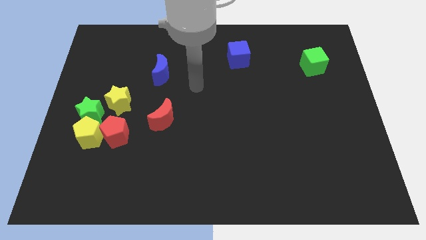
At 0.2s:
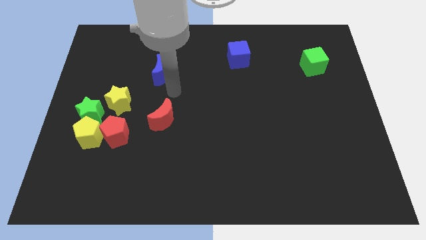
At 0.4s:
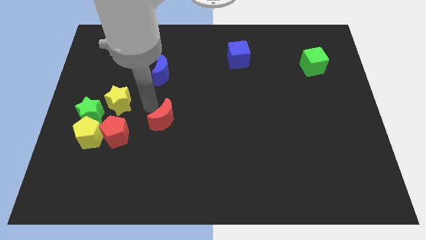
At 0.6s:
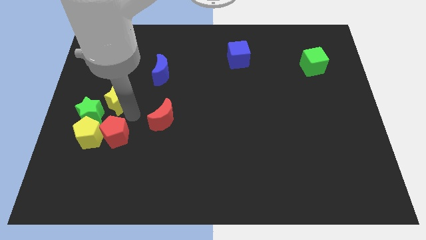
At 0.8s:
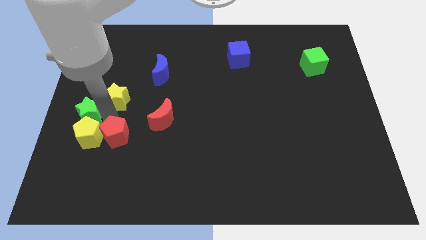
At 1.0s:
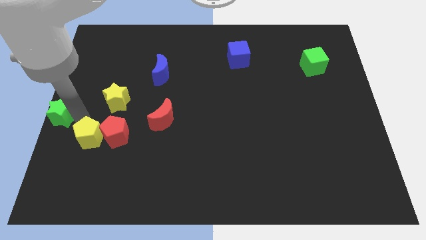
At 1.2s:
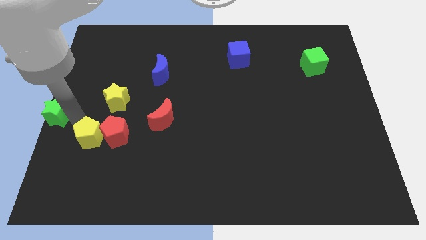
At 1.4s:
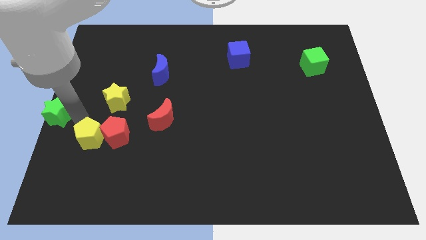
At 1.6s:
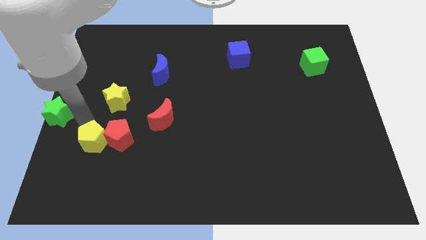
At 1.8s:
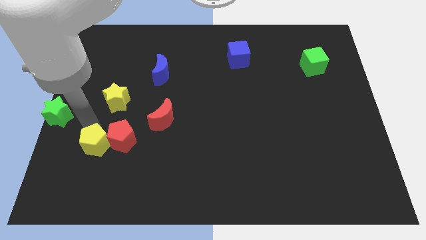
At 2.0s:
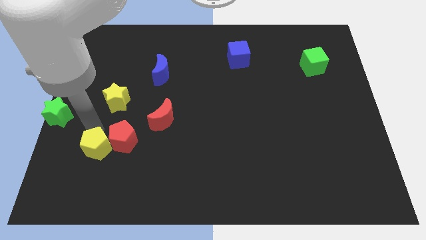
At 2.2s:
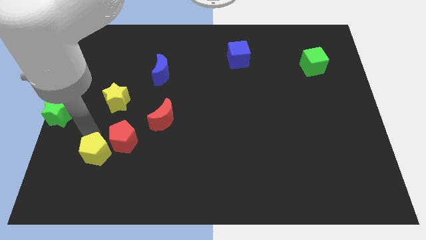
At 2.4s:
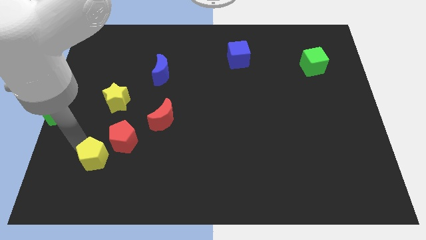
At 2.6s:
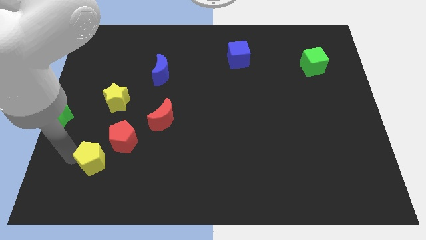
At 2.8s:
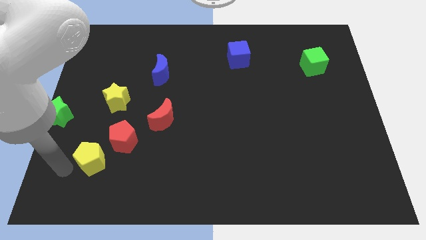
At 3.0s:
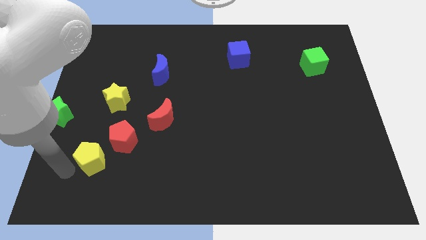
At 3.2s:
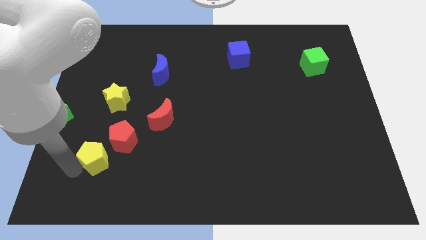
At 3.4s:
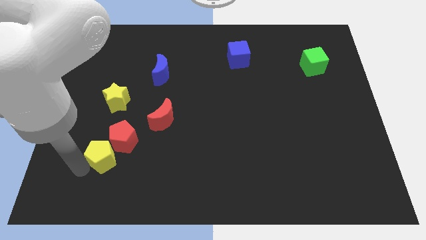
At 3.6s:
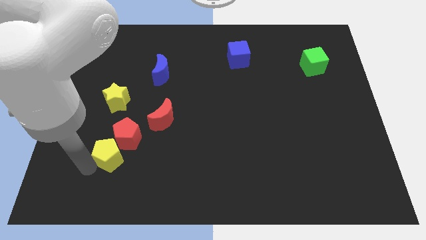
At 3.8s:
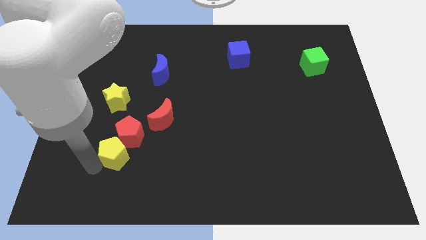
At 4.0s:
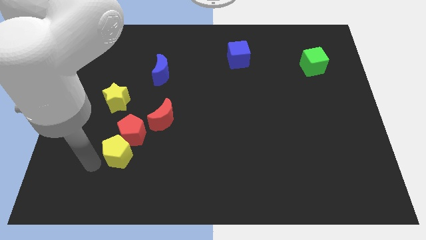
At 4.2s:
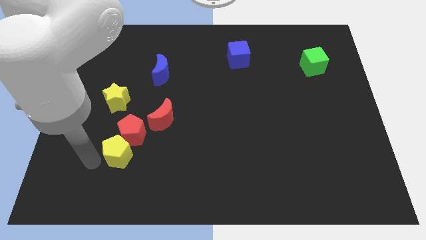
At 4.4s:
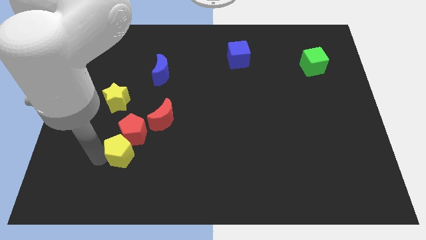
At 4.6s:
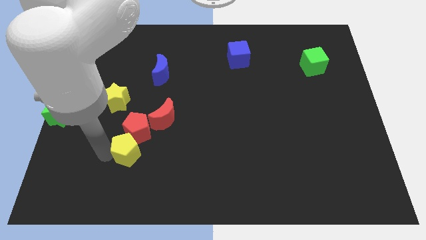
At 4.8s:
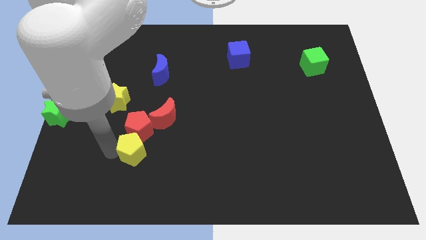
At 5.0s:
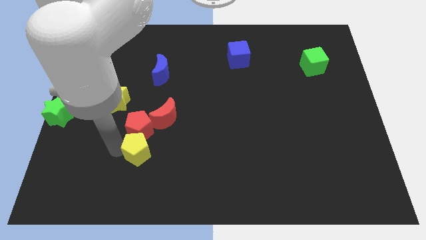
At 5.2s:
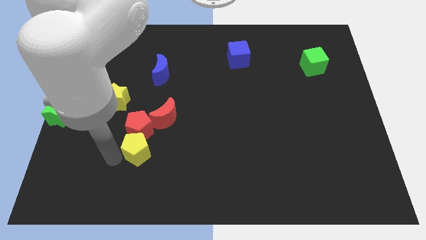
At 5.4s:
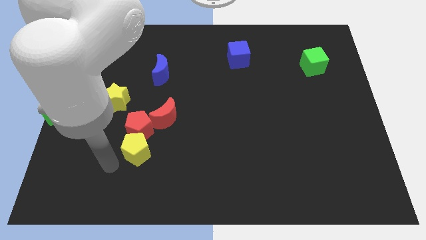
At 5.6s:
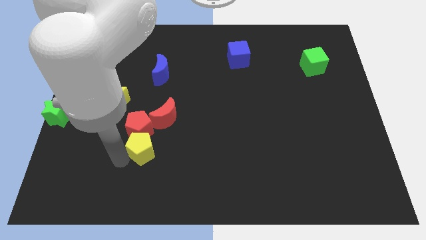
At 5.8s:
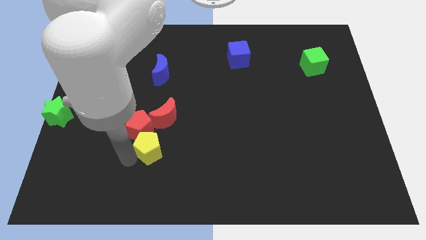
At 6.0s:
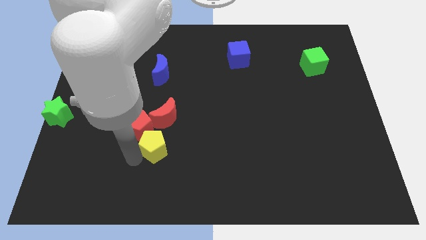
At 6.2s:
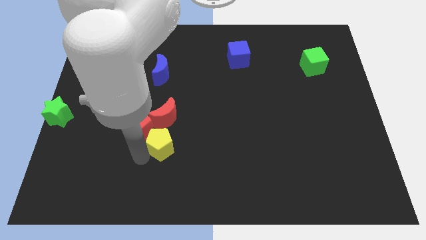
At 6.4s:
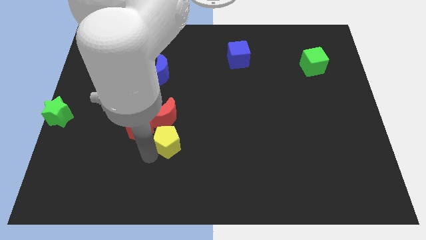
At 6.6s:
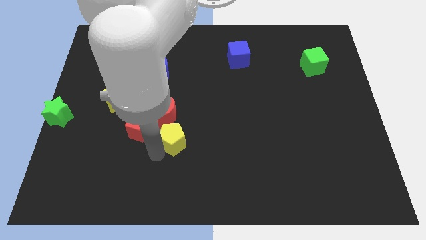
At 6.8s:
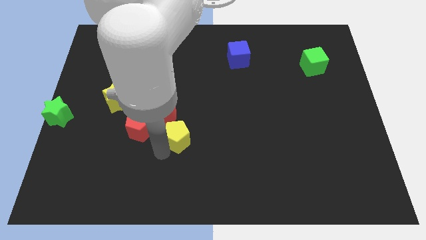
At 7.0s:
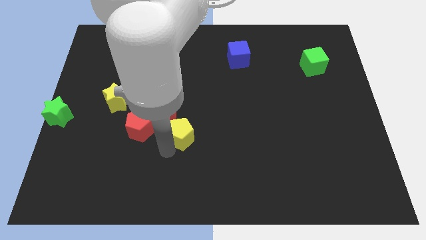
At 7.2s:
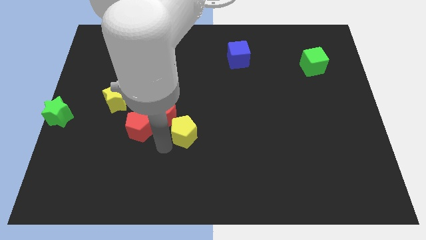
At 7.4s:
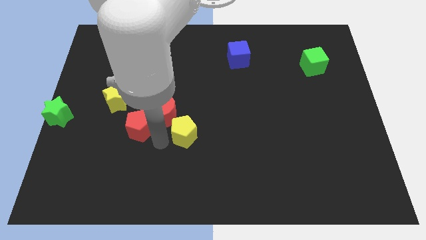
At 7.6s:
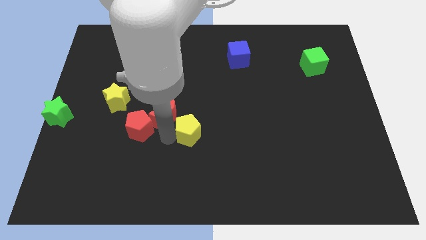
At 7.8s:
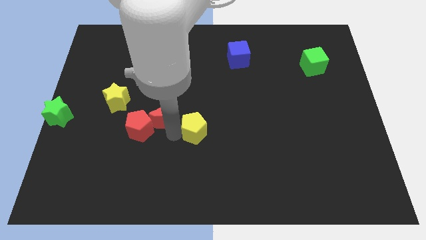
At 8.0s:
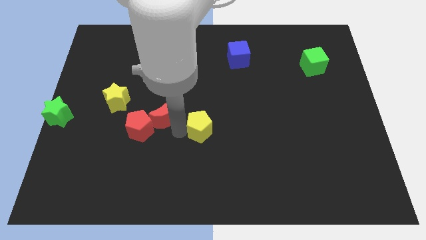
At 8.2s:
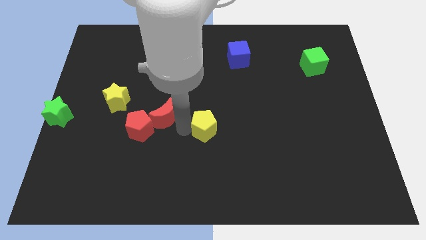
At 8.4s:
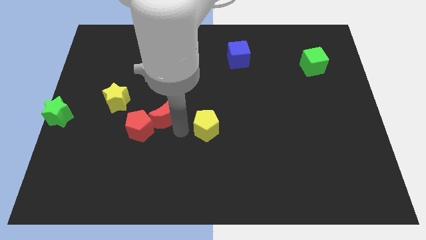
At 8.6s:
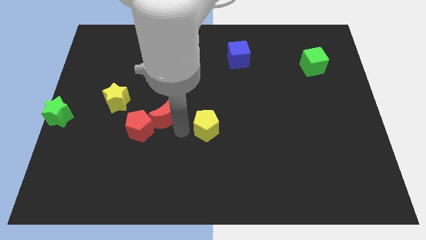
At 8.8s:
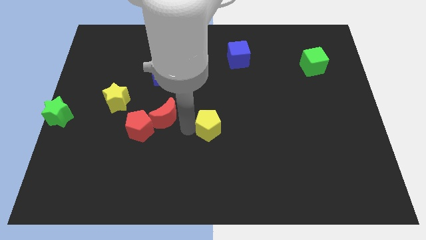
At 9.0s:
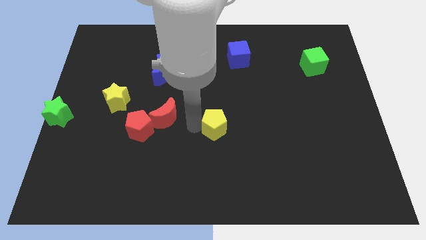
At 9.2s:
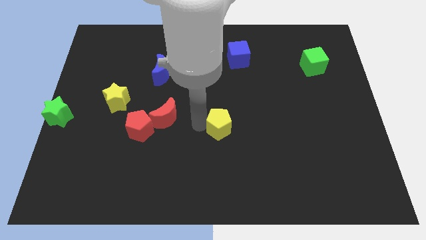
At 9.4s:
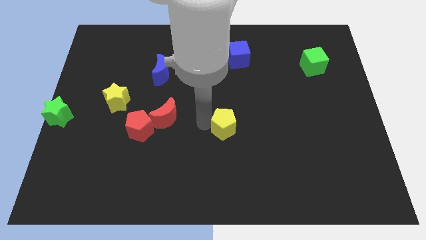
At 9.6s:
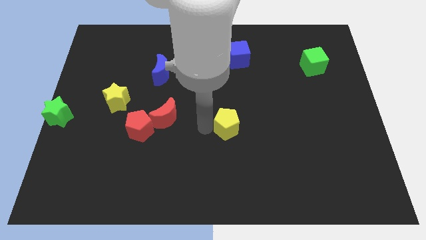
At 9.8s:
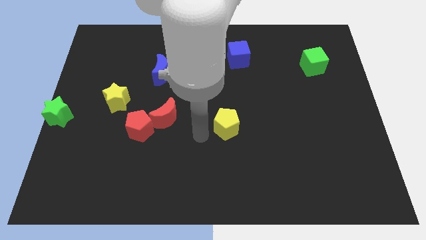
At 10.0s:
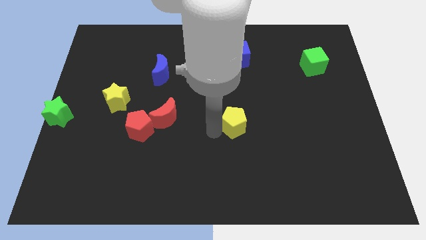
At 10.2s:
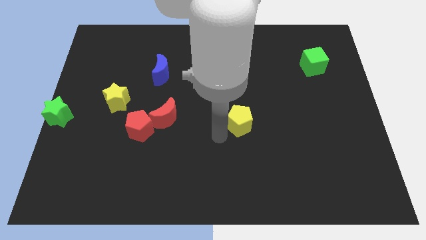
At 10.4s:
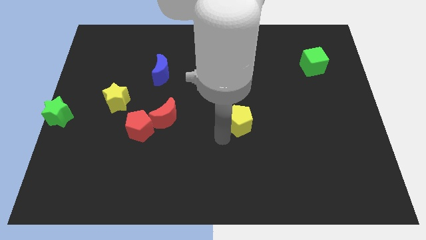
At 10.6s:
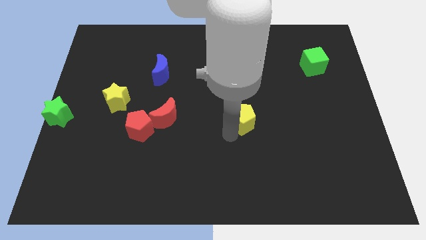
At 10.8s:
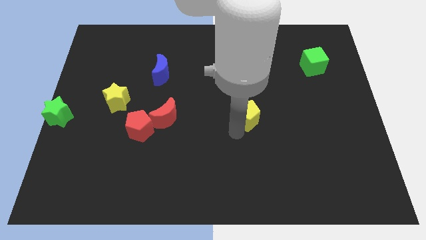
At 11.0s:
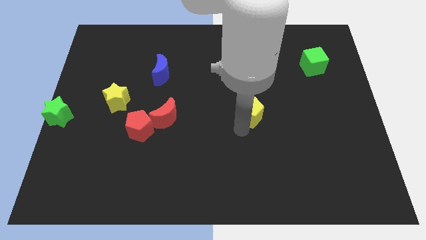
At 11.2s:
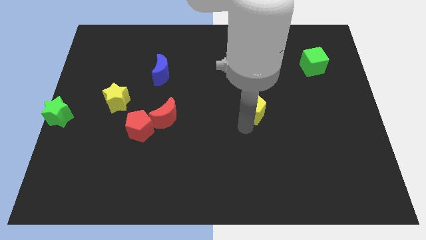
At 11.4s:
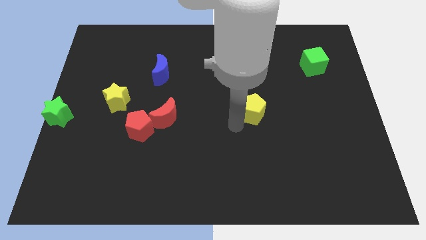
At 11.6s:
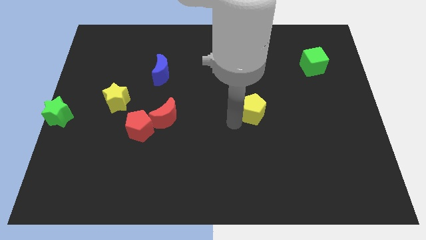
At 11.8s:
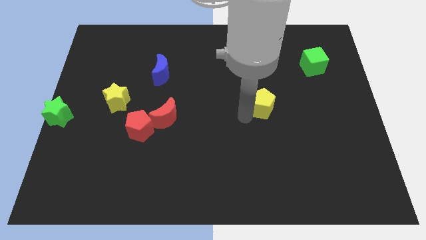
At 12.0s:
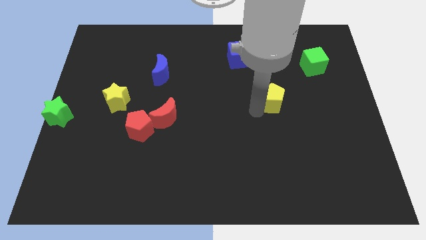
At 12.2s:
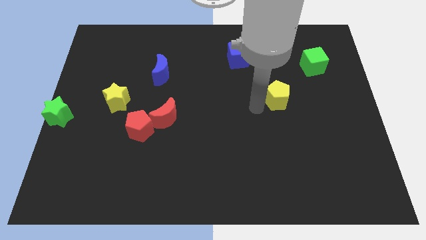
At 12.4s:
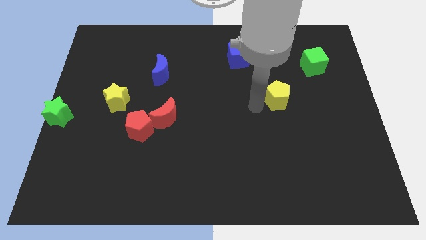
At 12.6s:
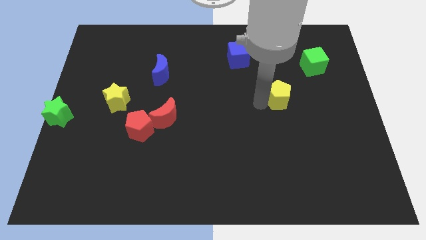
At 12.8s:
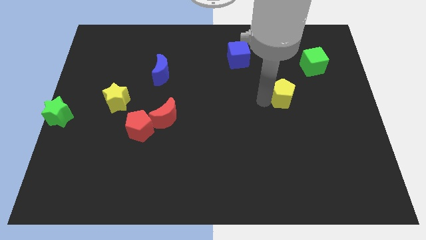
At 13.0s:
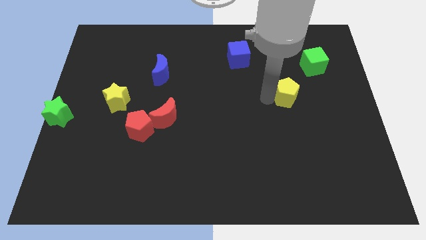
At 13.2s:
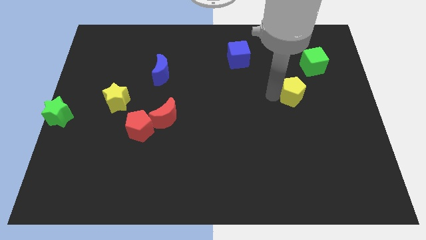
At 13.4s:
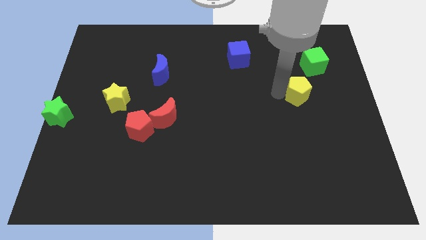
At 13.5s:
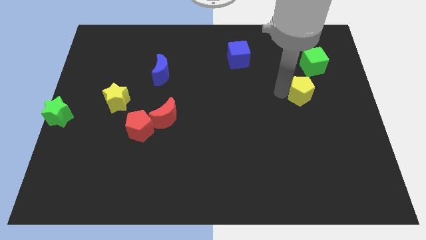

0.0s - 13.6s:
push the yellow pentagon to the bottom of the green cube

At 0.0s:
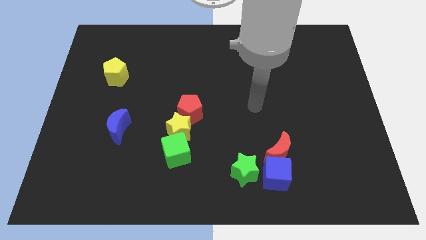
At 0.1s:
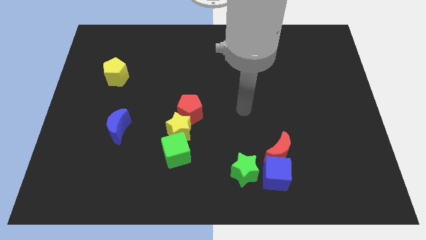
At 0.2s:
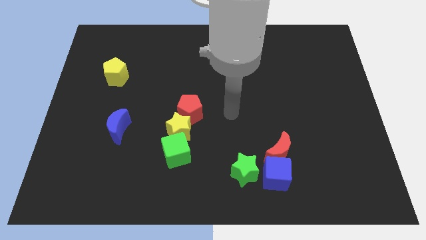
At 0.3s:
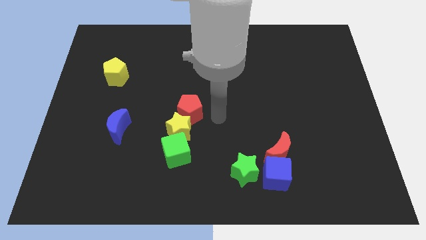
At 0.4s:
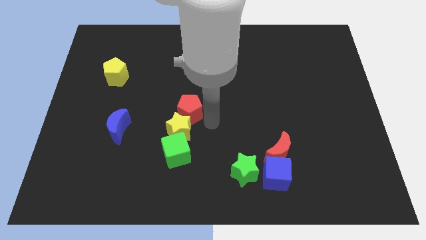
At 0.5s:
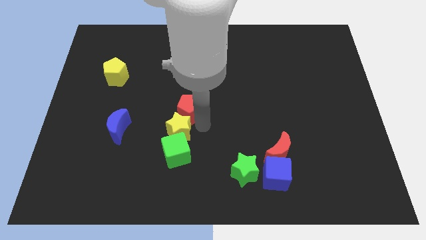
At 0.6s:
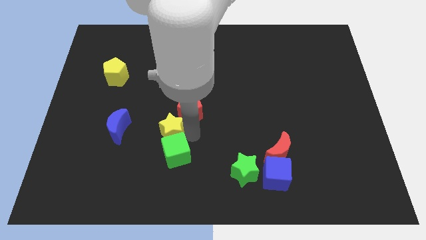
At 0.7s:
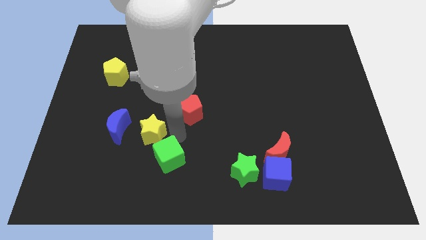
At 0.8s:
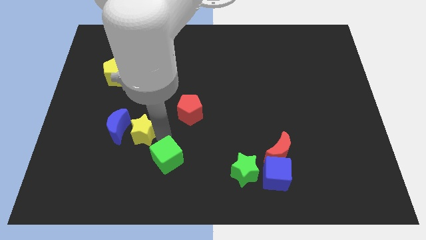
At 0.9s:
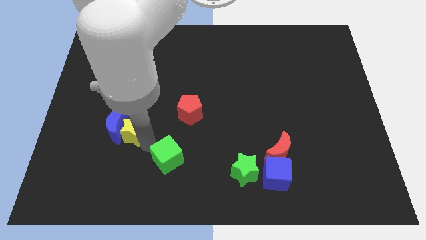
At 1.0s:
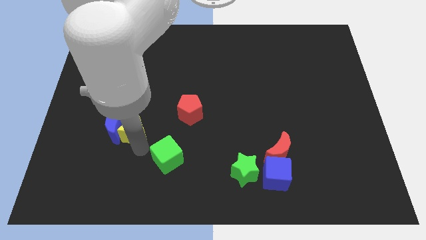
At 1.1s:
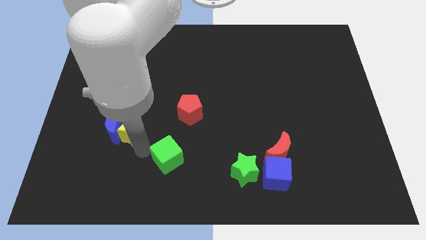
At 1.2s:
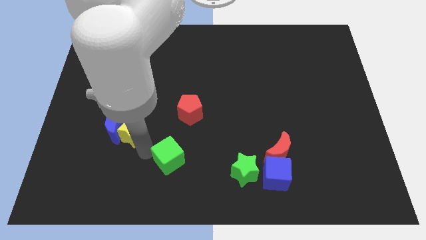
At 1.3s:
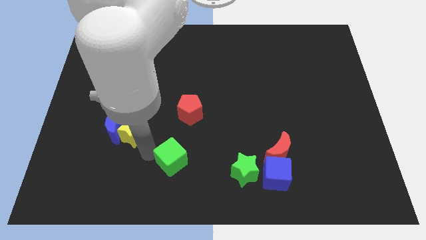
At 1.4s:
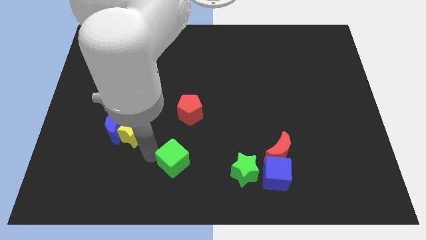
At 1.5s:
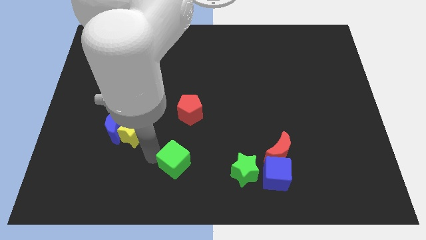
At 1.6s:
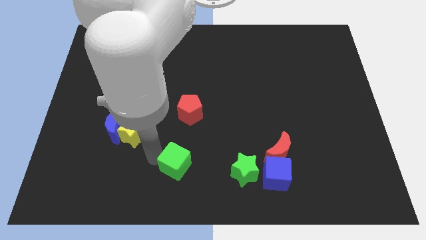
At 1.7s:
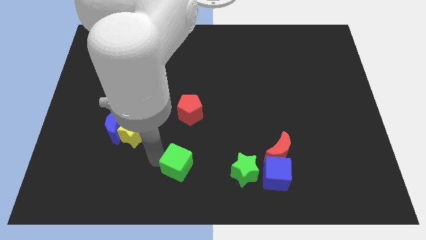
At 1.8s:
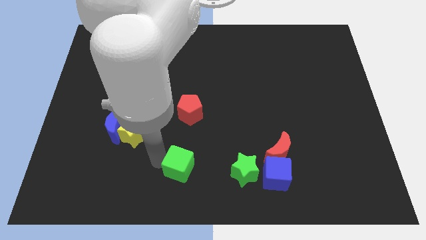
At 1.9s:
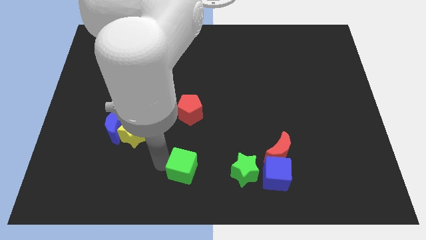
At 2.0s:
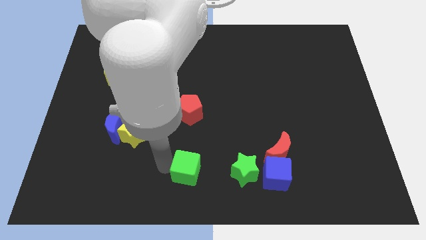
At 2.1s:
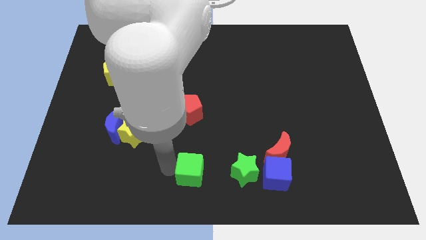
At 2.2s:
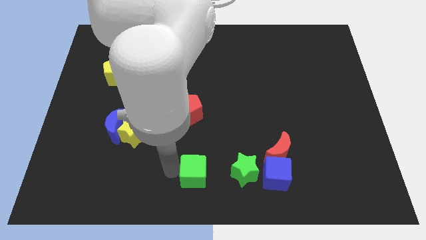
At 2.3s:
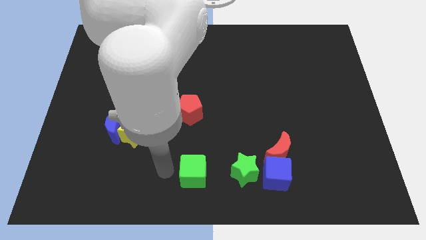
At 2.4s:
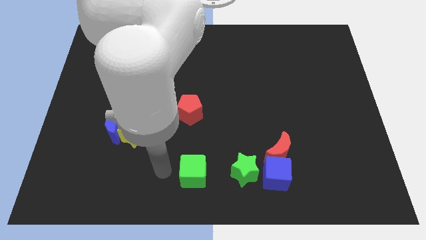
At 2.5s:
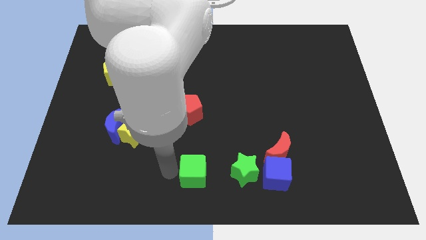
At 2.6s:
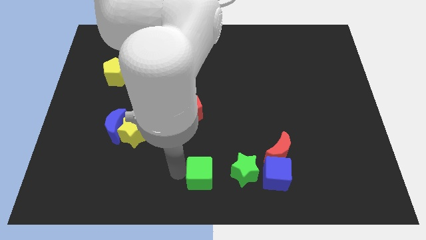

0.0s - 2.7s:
slide the green cube to the left side of the blue cube
